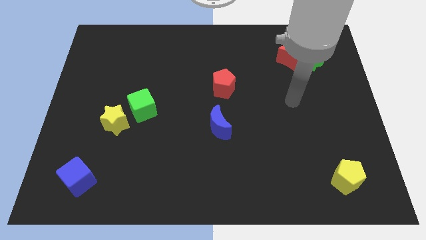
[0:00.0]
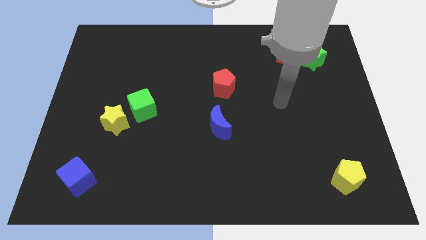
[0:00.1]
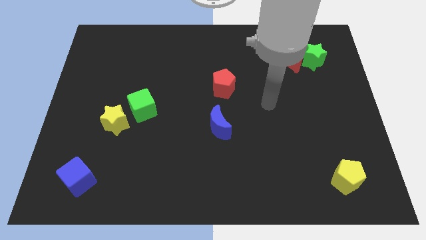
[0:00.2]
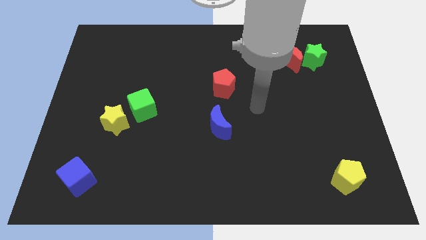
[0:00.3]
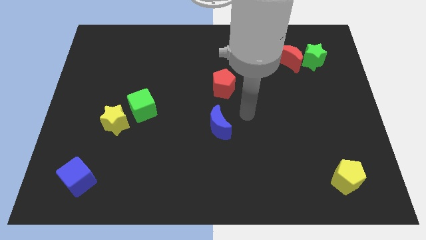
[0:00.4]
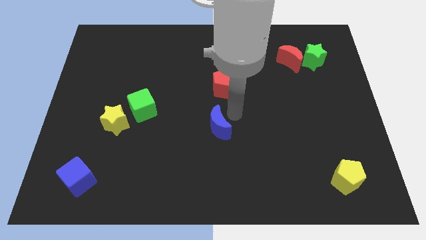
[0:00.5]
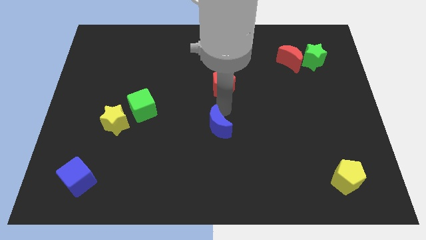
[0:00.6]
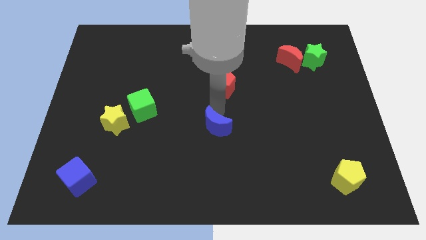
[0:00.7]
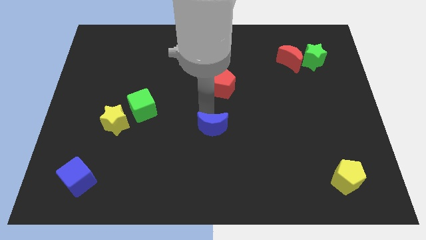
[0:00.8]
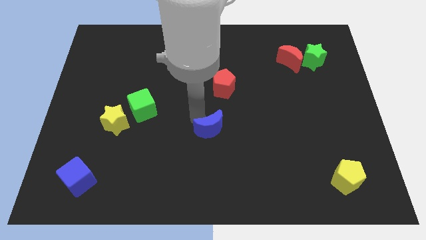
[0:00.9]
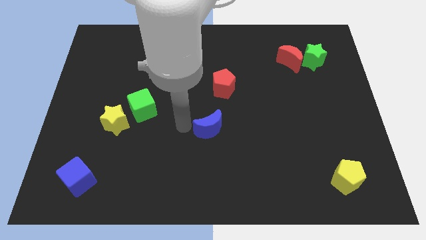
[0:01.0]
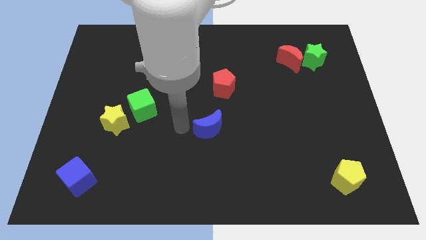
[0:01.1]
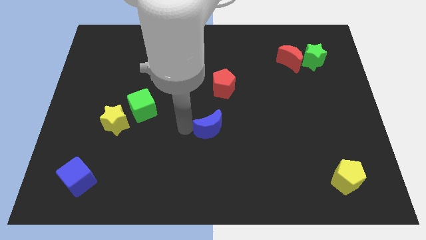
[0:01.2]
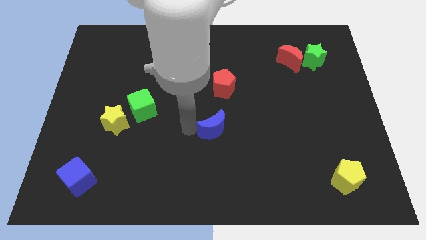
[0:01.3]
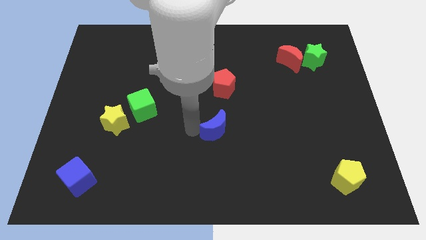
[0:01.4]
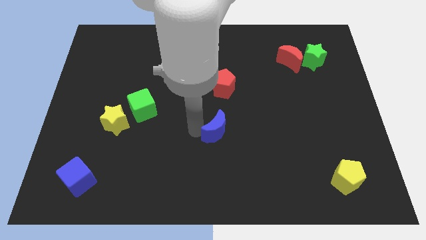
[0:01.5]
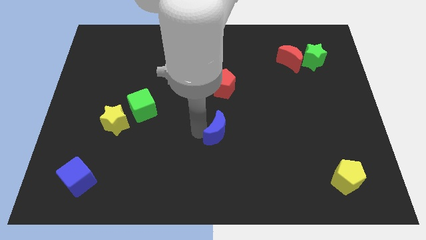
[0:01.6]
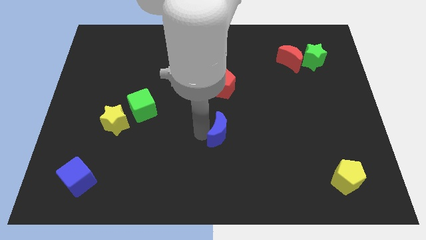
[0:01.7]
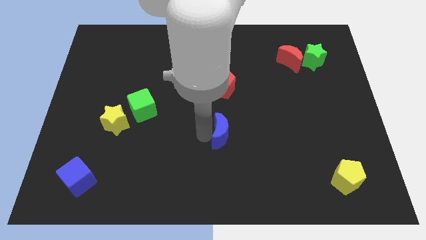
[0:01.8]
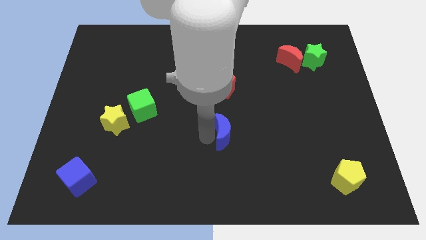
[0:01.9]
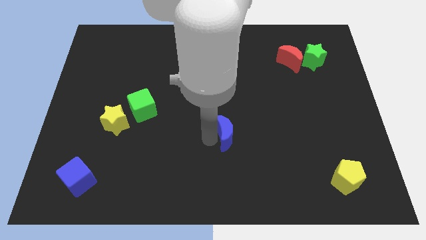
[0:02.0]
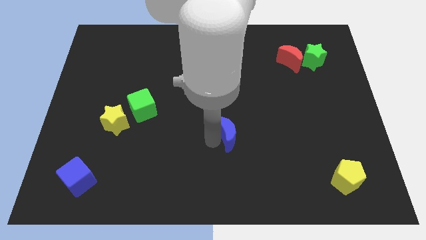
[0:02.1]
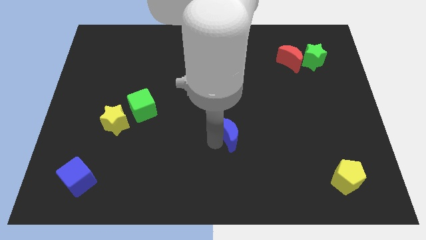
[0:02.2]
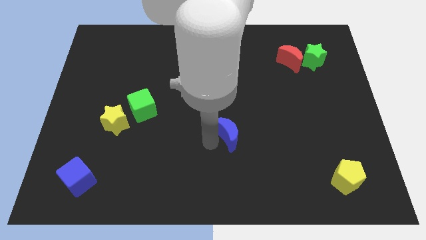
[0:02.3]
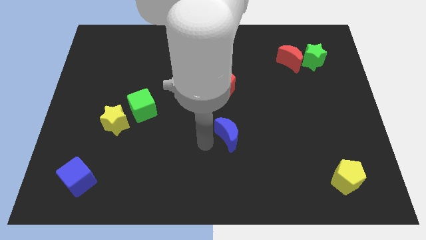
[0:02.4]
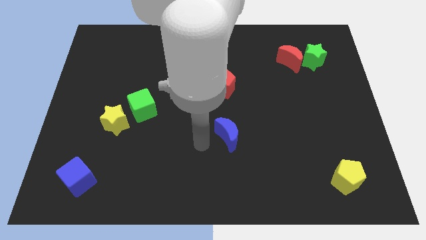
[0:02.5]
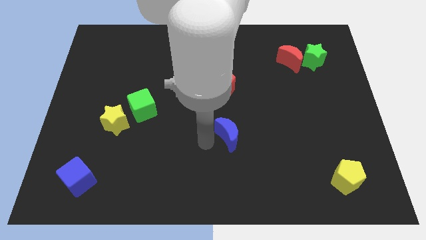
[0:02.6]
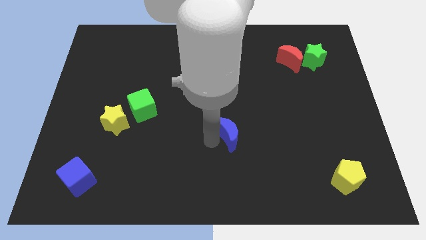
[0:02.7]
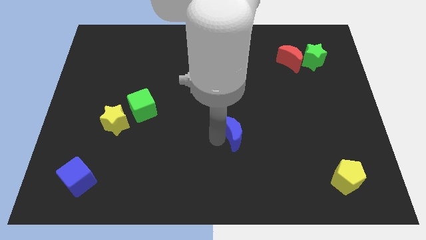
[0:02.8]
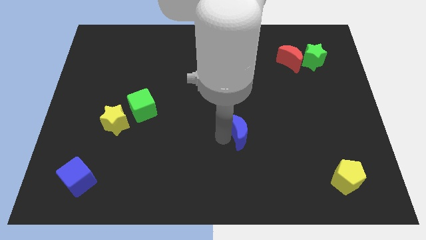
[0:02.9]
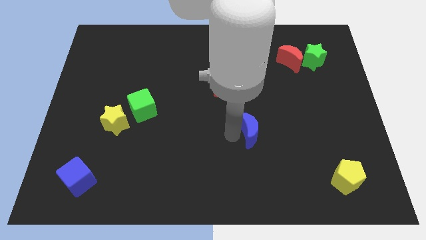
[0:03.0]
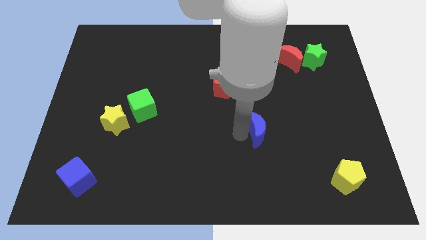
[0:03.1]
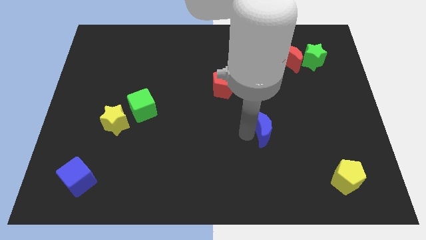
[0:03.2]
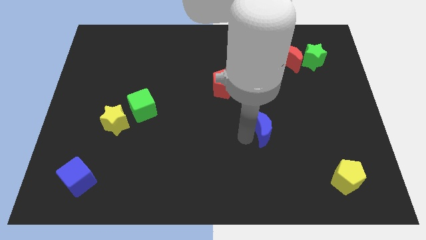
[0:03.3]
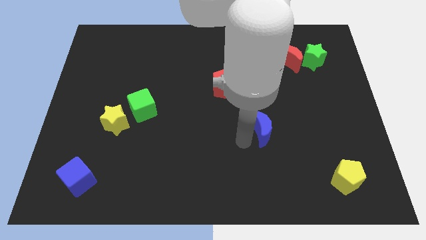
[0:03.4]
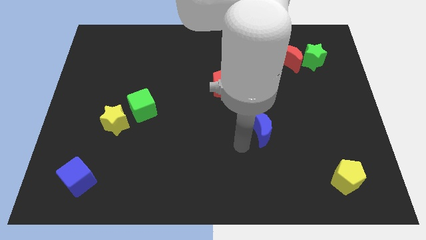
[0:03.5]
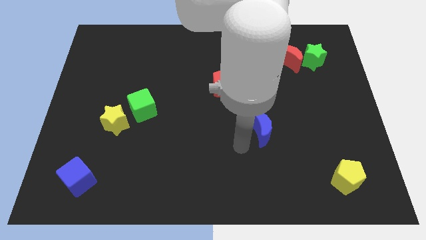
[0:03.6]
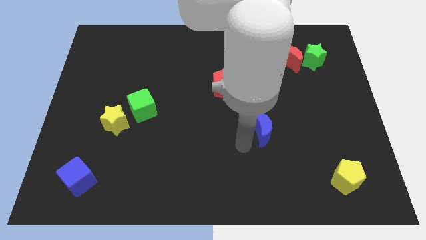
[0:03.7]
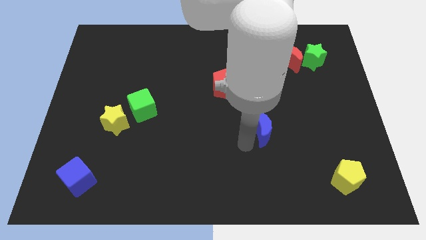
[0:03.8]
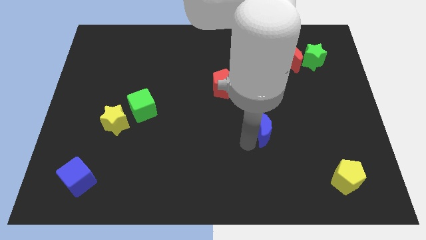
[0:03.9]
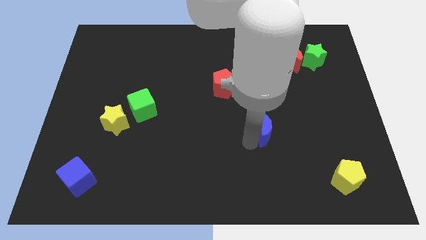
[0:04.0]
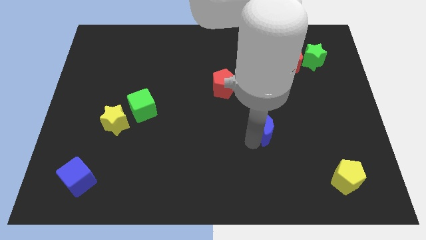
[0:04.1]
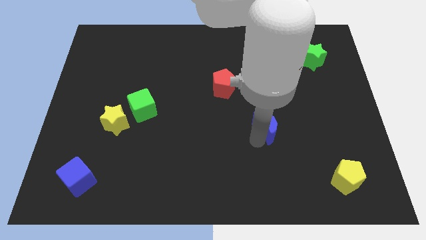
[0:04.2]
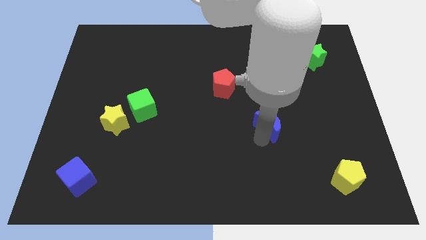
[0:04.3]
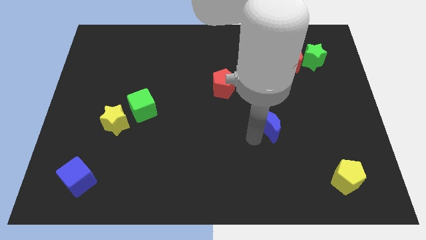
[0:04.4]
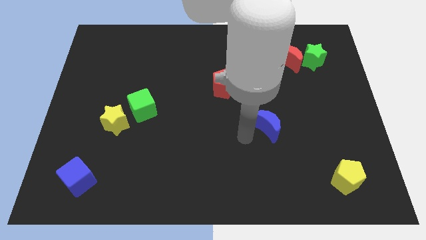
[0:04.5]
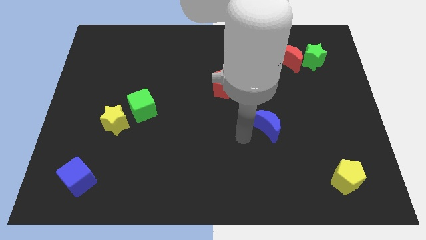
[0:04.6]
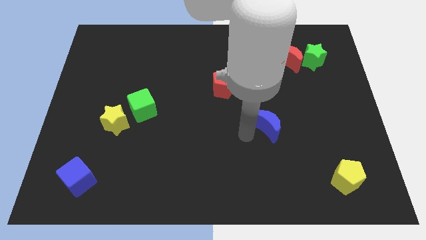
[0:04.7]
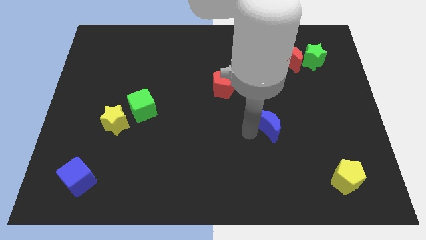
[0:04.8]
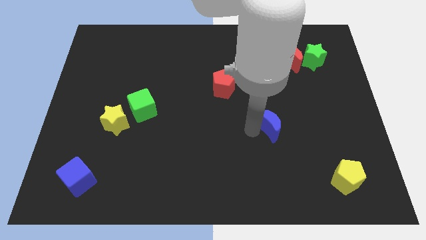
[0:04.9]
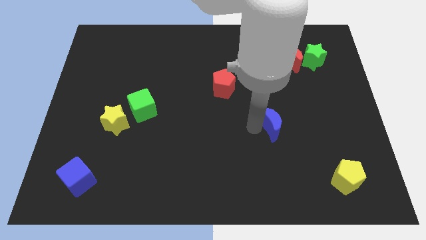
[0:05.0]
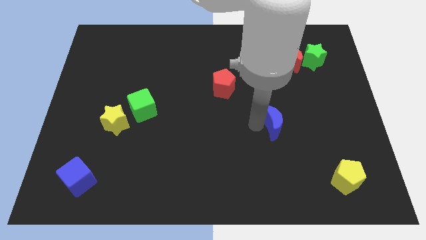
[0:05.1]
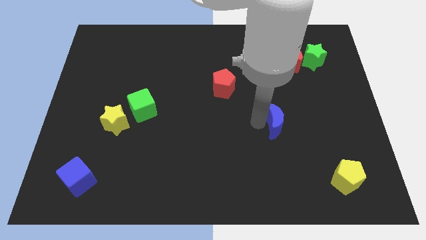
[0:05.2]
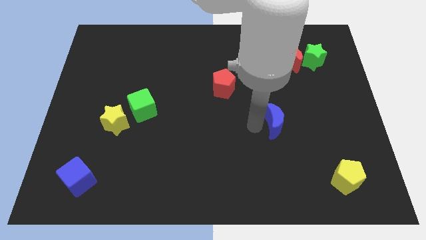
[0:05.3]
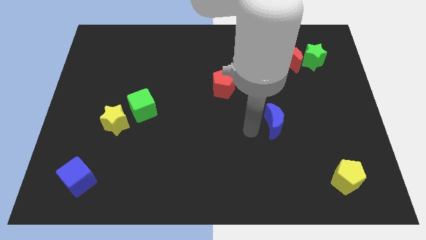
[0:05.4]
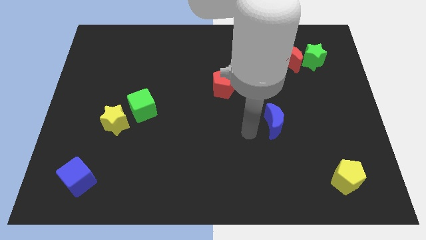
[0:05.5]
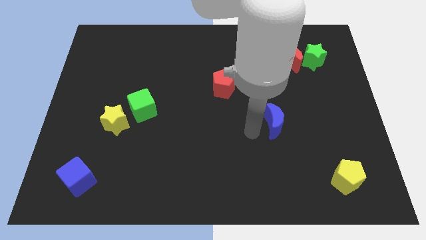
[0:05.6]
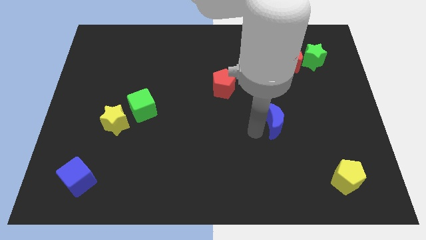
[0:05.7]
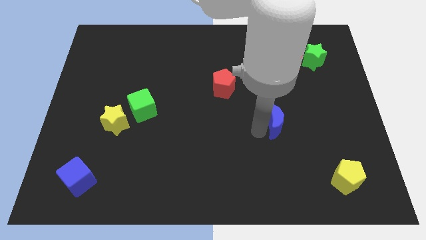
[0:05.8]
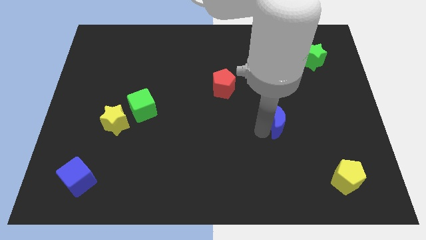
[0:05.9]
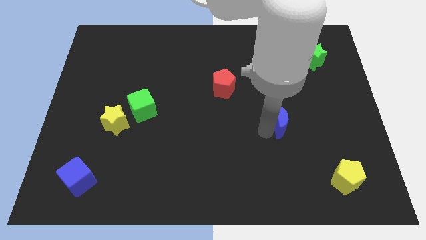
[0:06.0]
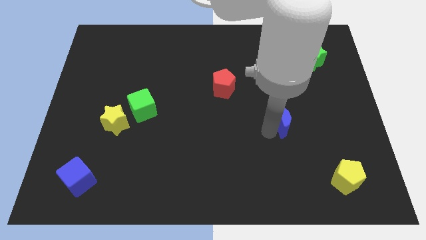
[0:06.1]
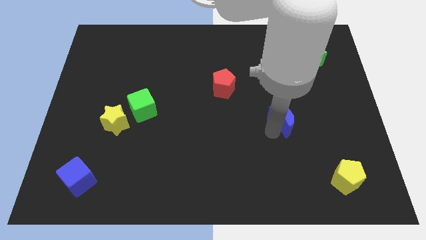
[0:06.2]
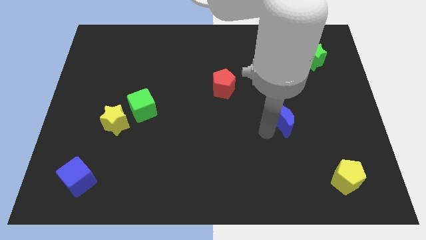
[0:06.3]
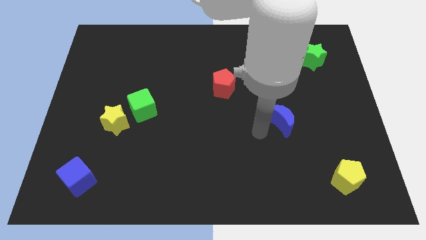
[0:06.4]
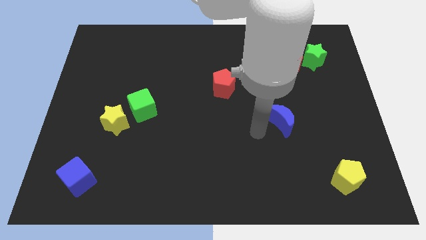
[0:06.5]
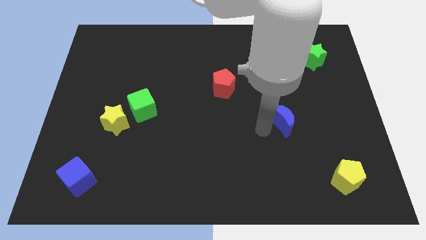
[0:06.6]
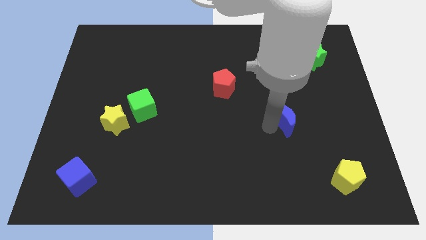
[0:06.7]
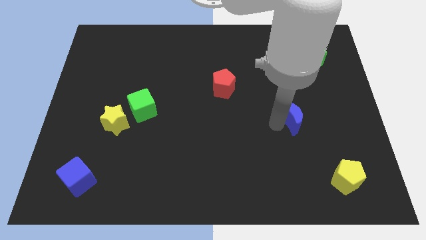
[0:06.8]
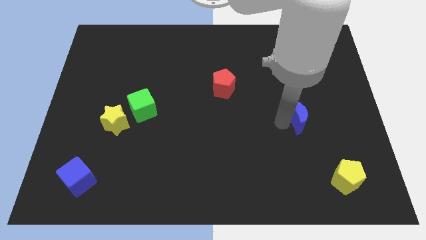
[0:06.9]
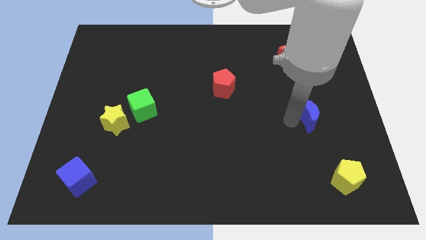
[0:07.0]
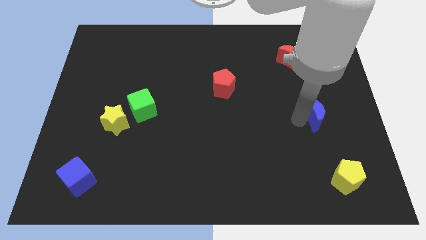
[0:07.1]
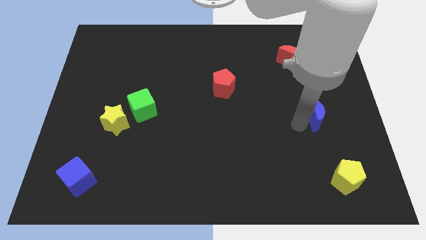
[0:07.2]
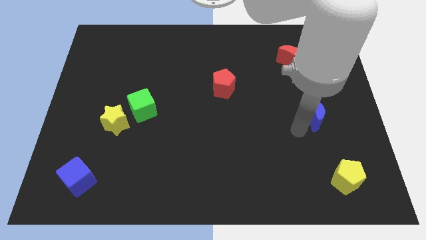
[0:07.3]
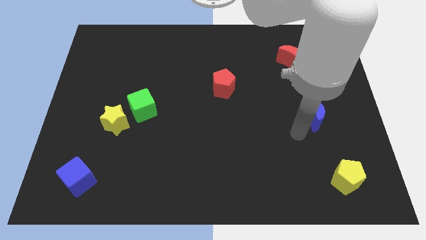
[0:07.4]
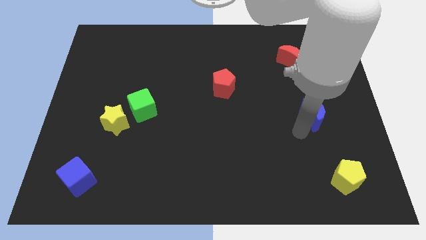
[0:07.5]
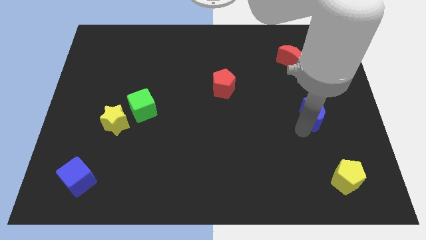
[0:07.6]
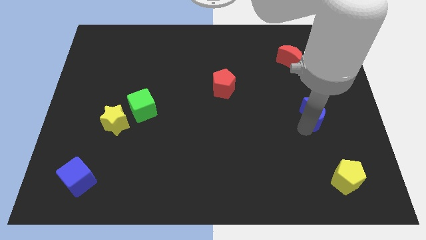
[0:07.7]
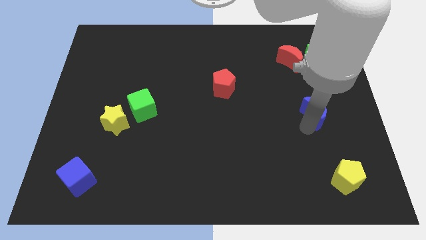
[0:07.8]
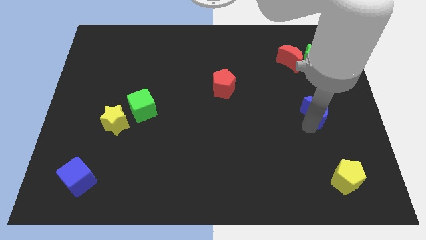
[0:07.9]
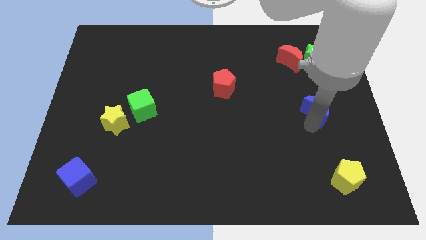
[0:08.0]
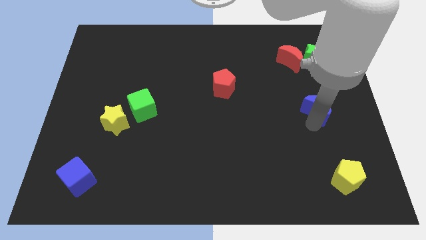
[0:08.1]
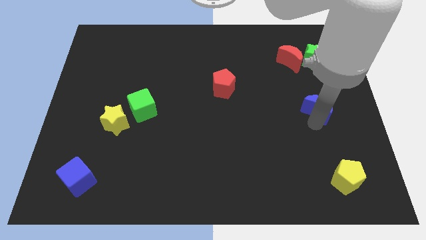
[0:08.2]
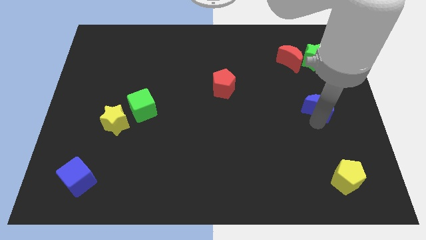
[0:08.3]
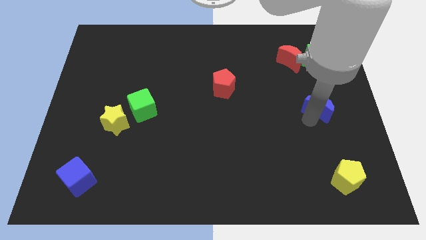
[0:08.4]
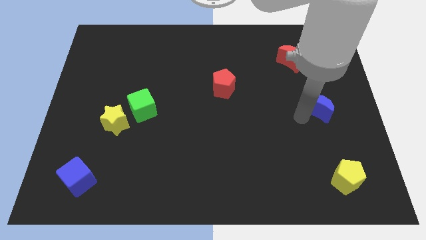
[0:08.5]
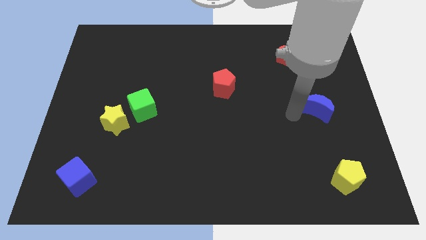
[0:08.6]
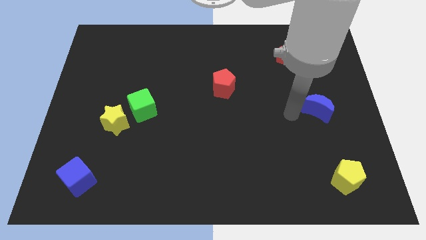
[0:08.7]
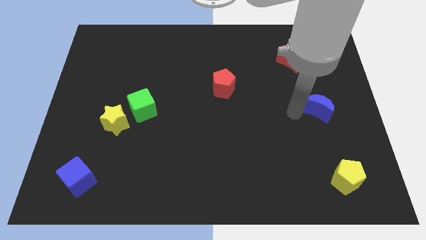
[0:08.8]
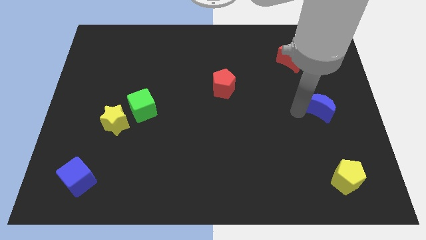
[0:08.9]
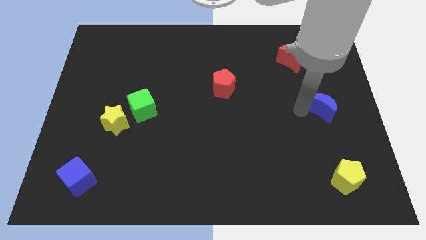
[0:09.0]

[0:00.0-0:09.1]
slide the blue moon to the right side
